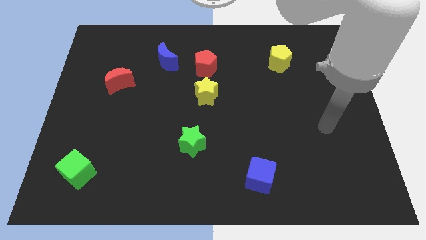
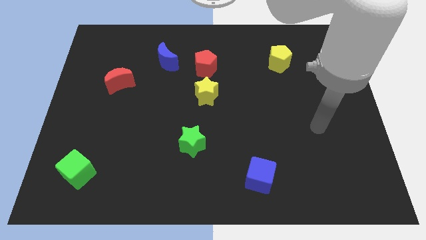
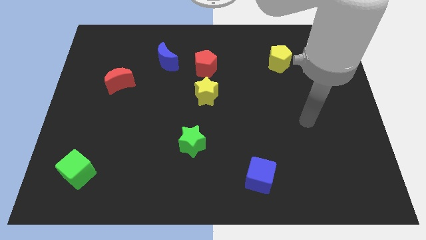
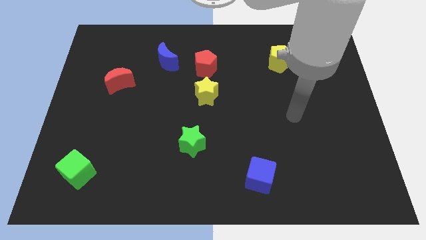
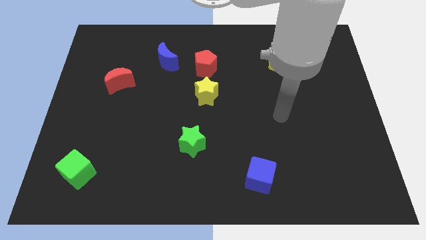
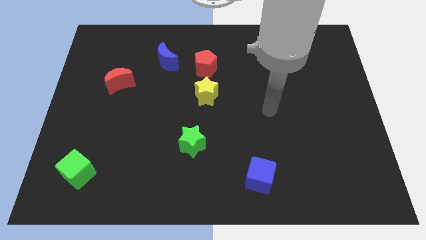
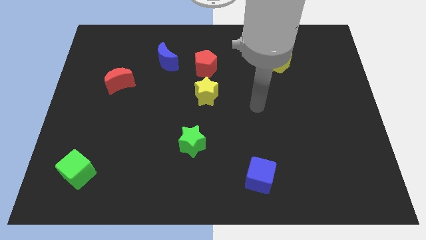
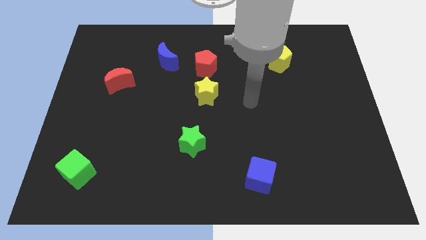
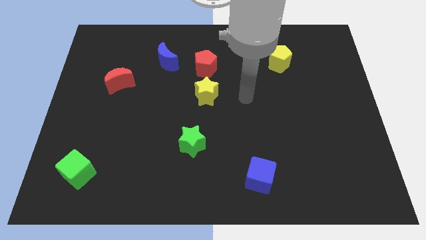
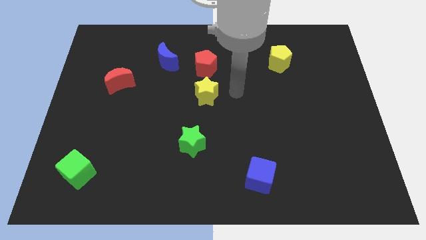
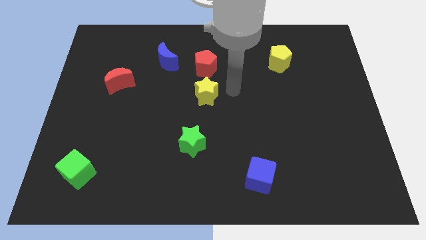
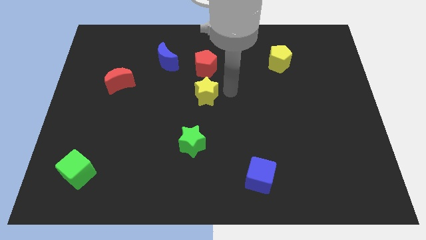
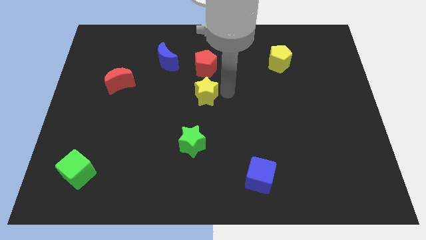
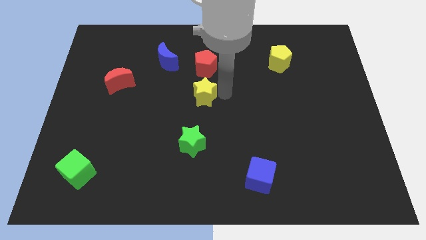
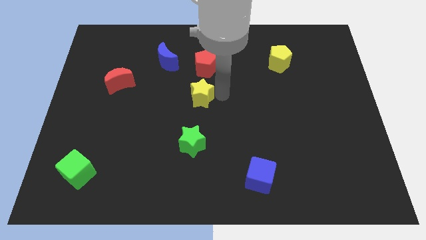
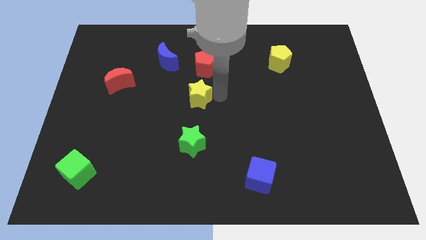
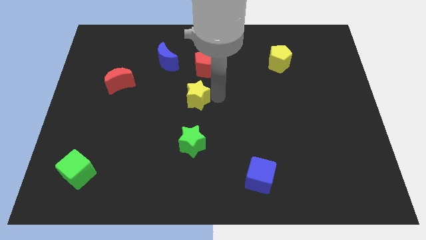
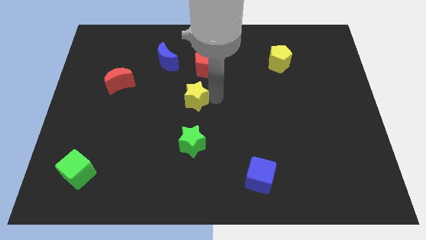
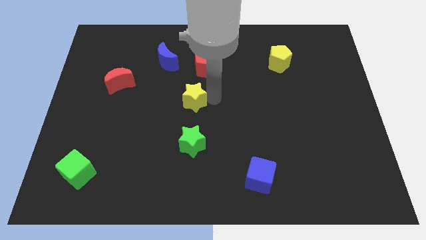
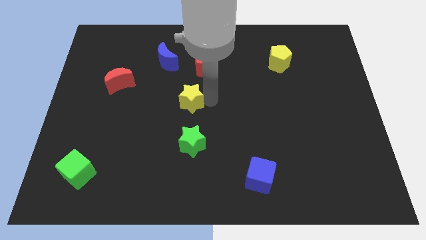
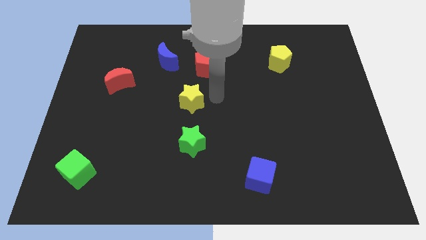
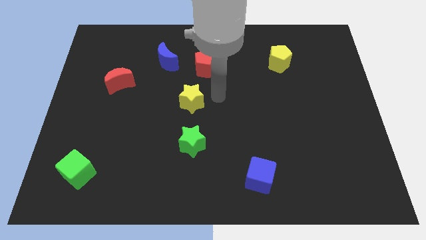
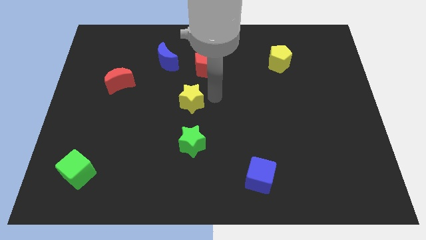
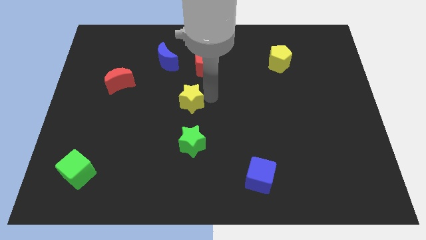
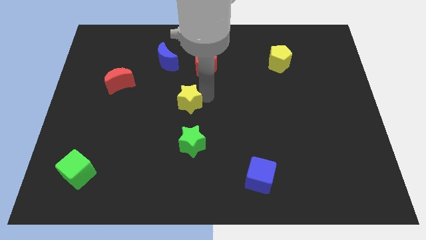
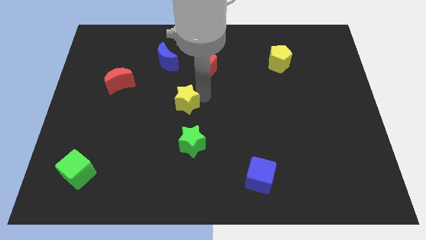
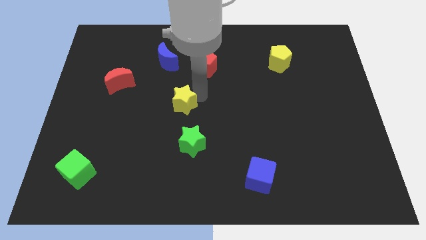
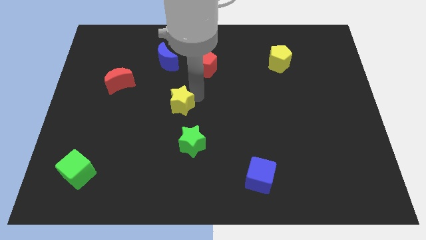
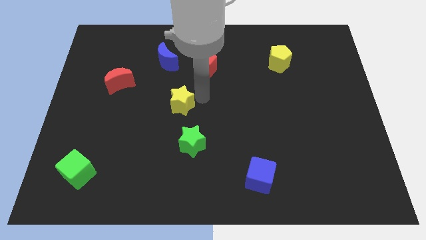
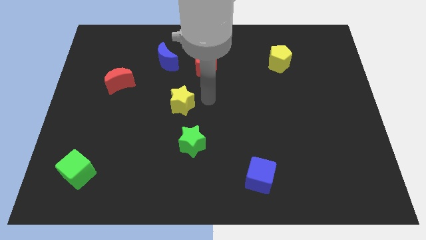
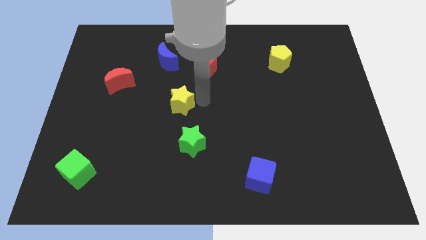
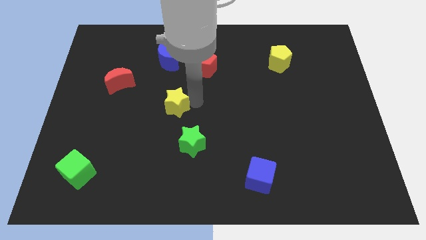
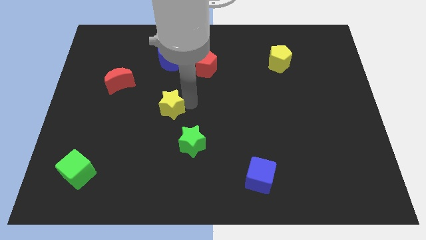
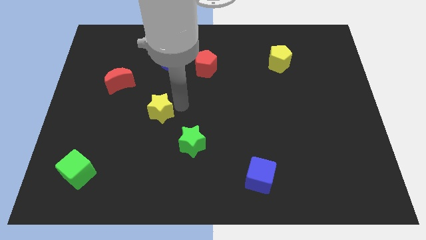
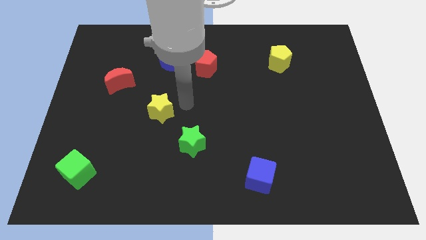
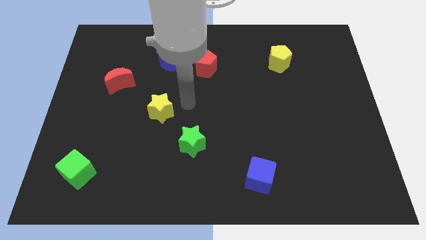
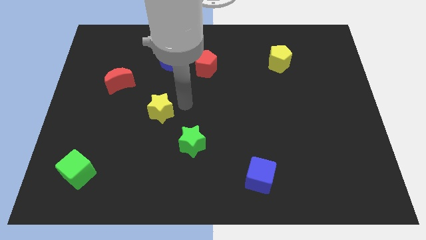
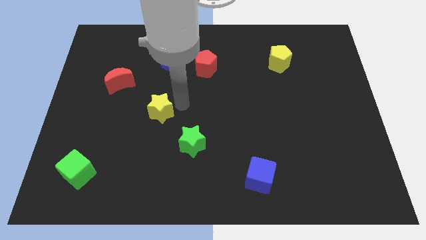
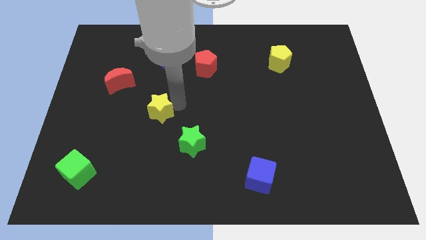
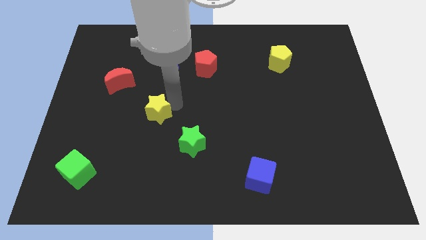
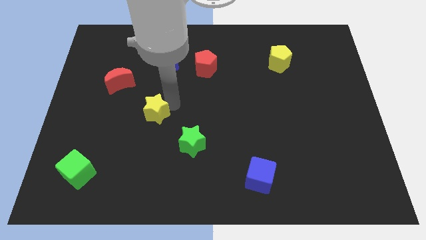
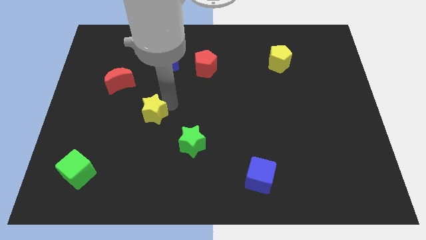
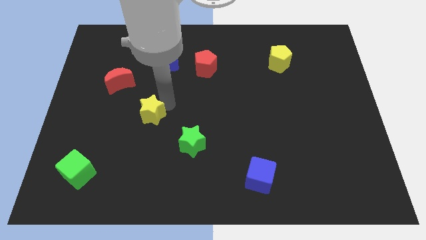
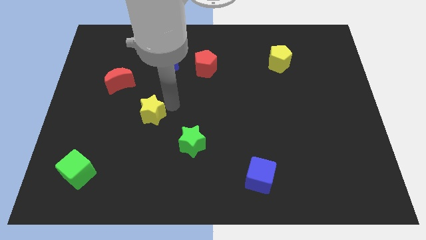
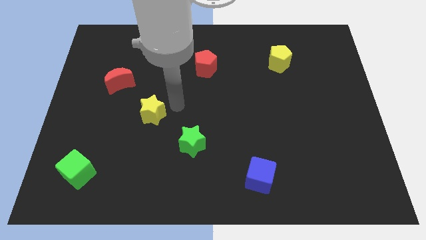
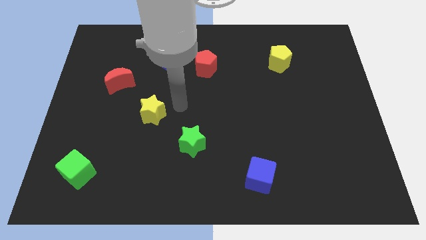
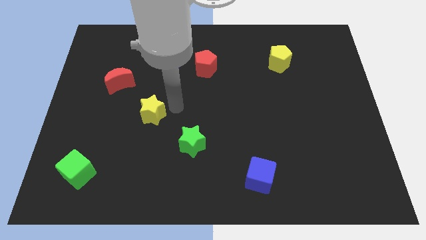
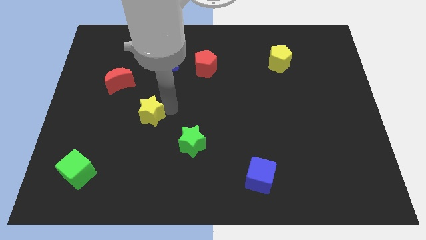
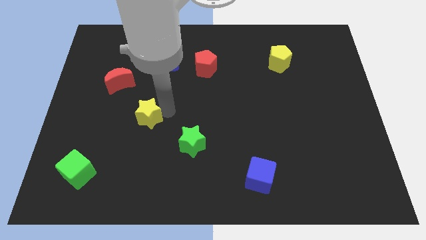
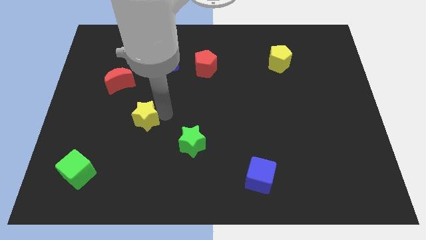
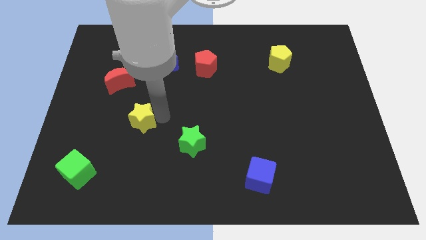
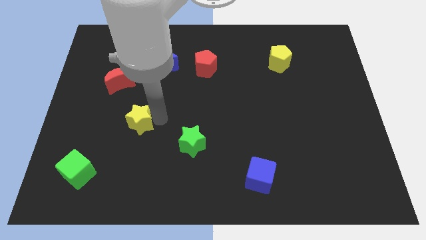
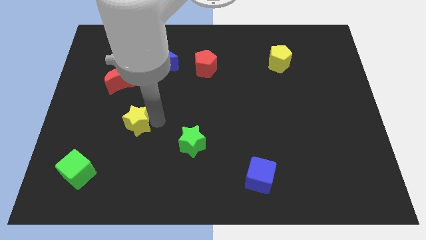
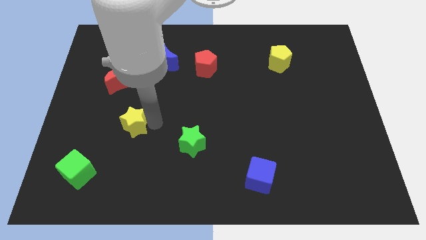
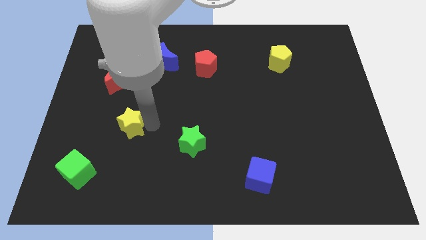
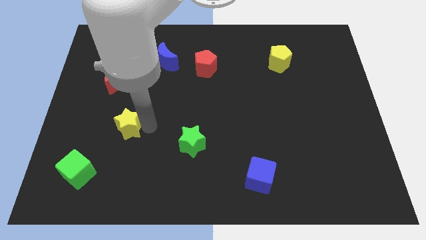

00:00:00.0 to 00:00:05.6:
put the yellow star below the red moon

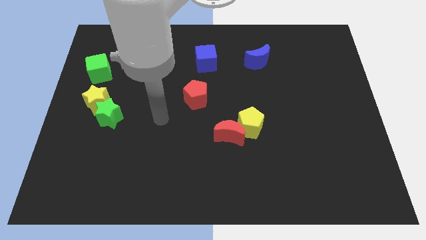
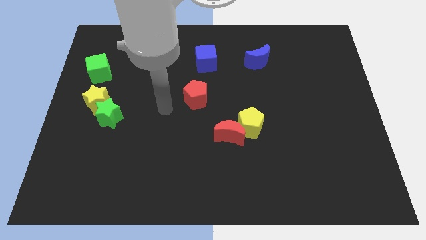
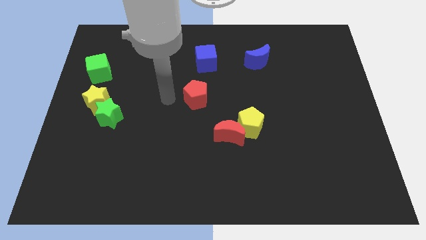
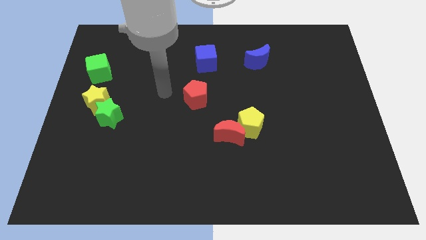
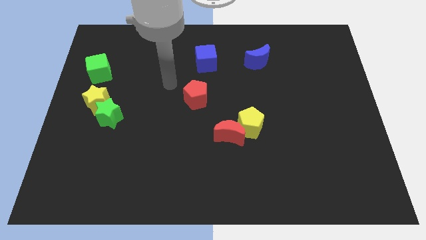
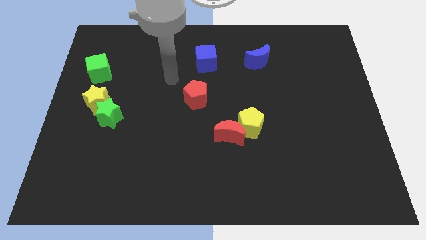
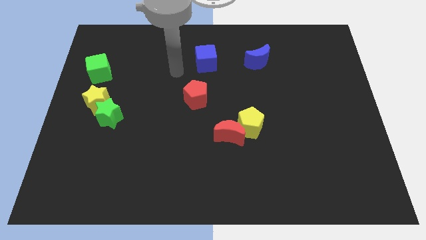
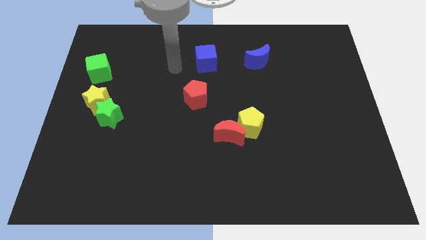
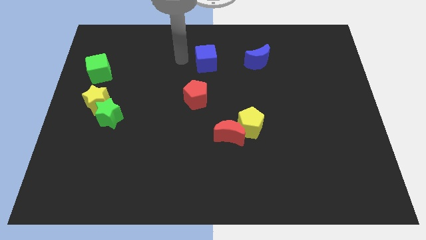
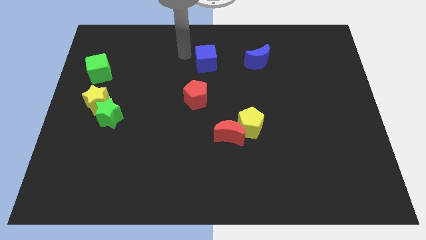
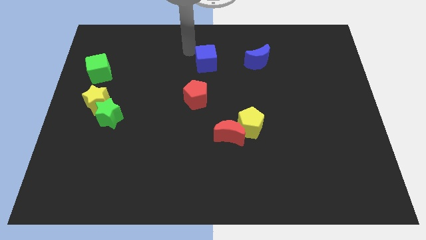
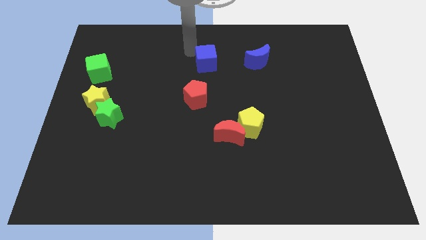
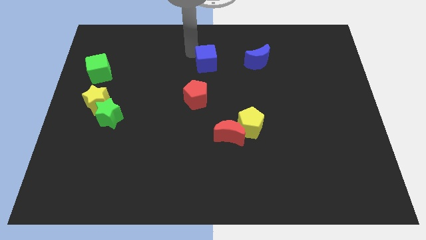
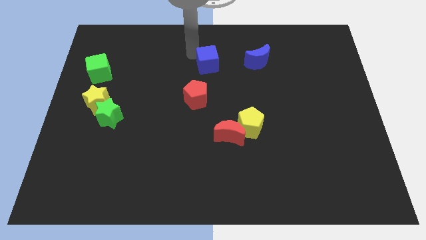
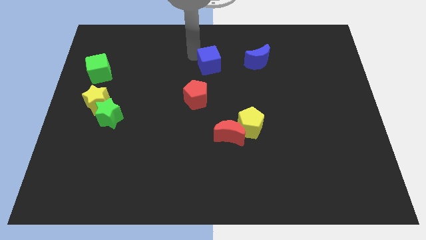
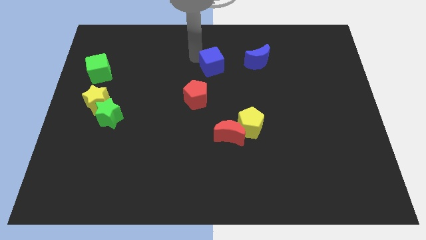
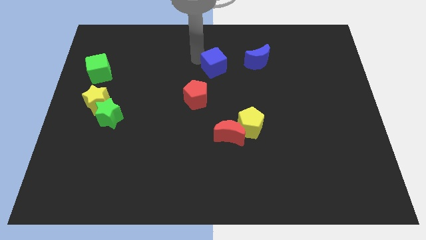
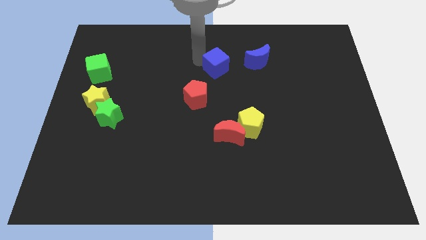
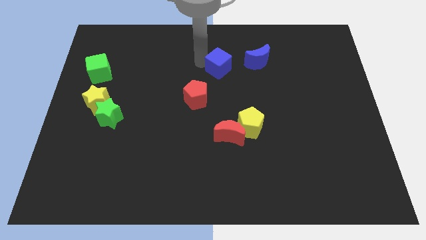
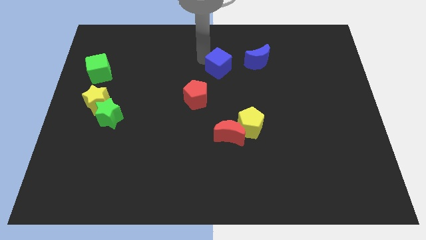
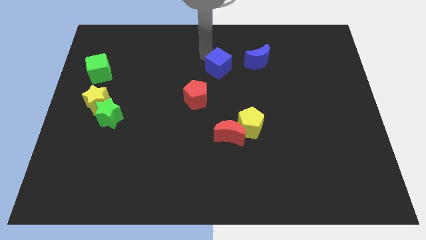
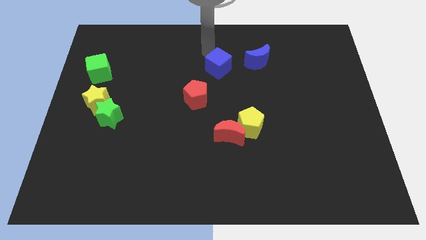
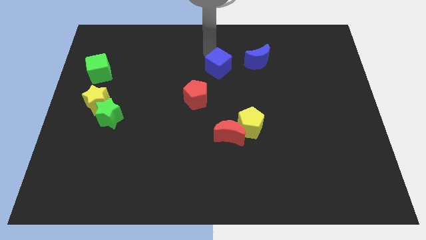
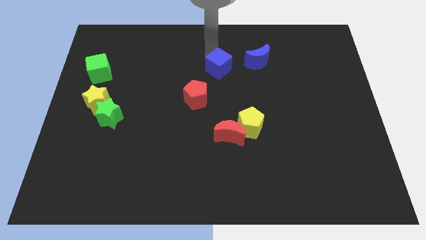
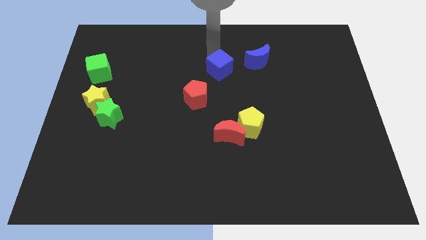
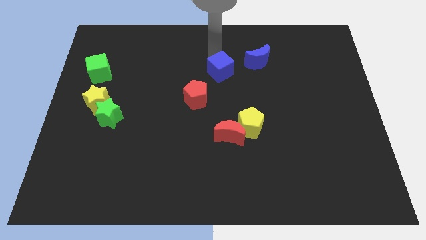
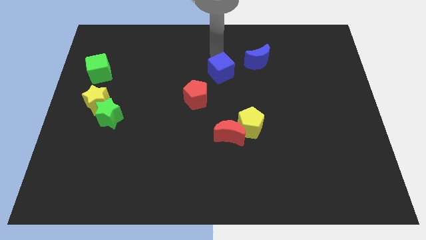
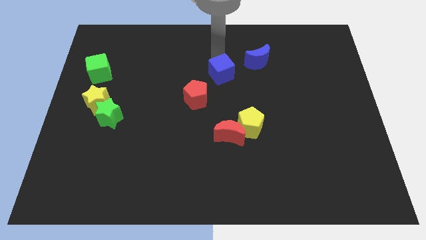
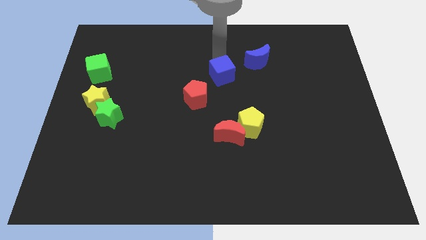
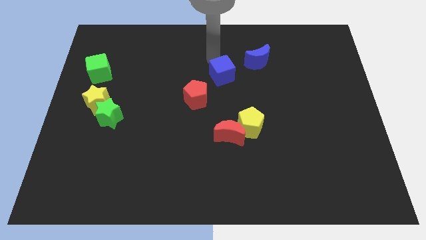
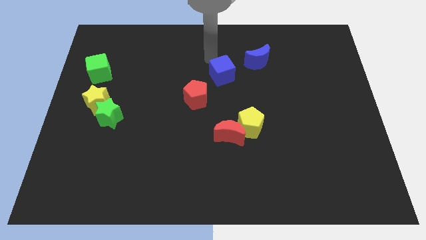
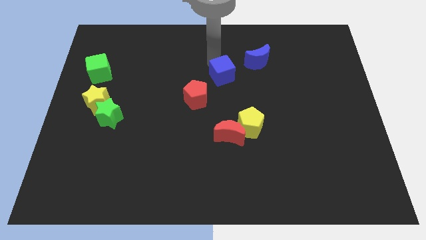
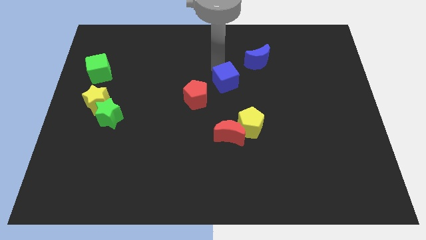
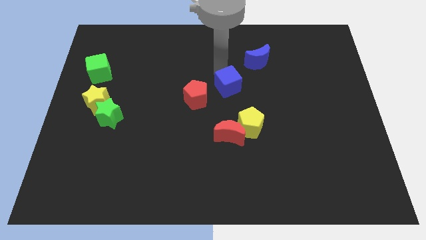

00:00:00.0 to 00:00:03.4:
put the blue cube just right of the red pentagon
